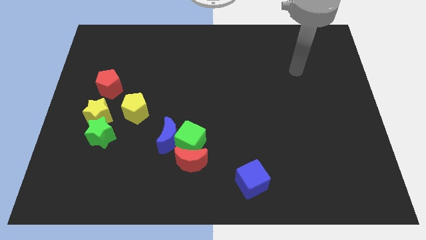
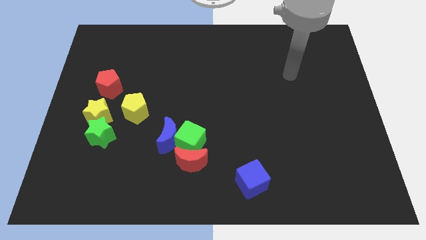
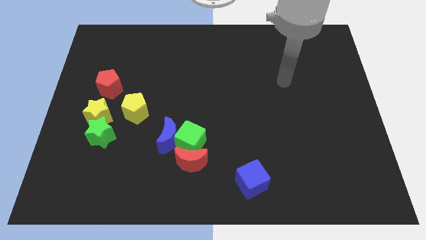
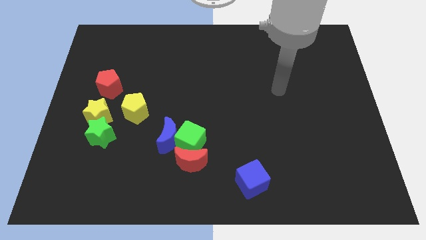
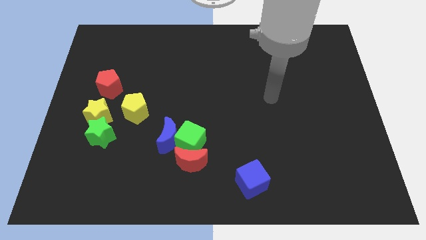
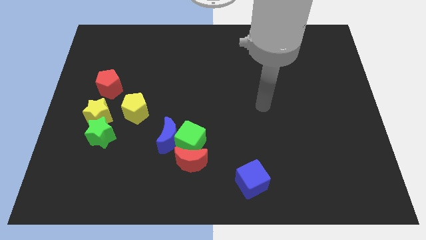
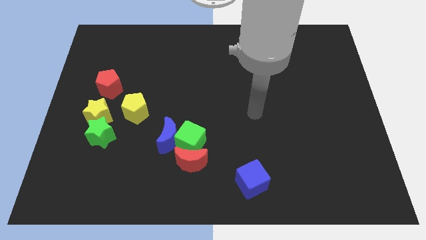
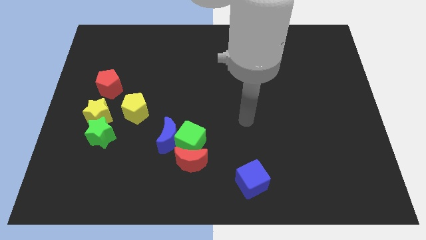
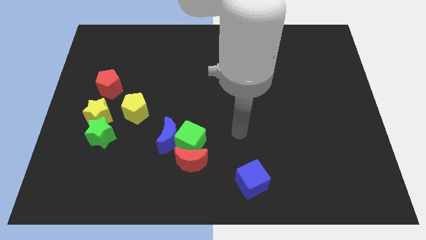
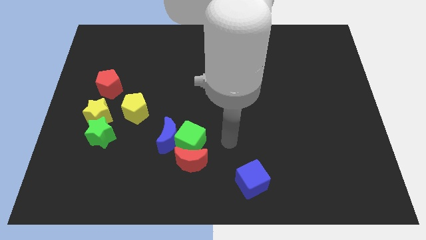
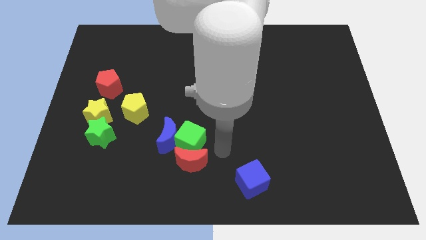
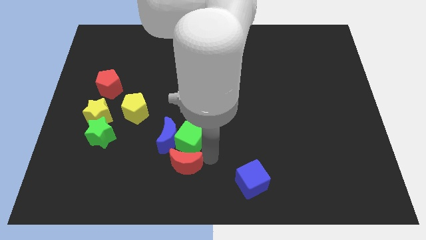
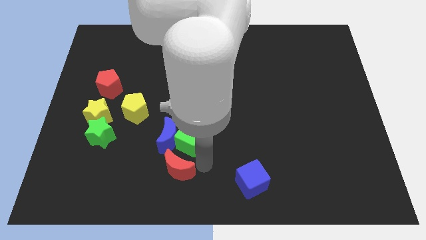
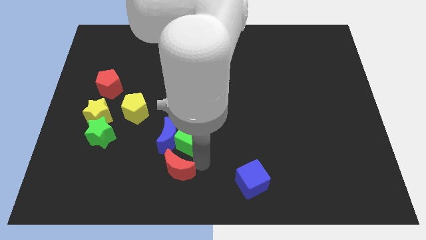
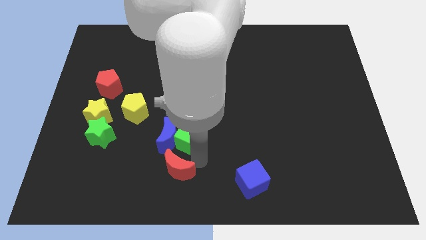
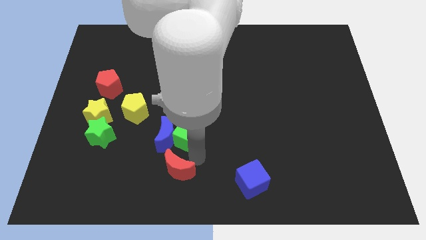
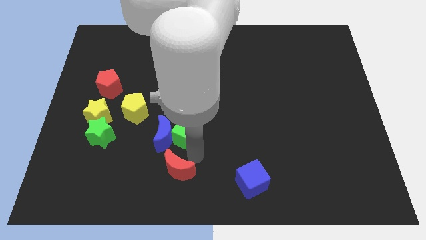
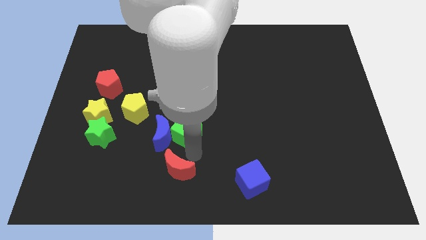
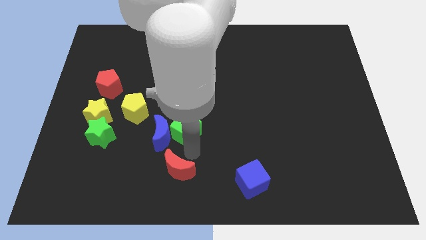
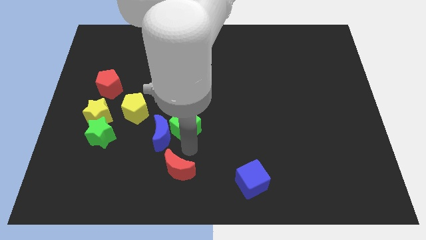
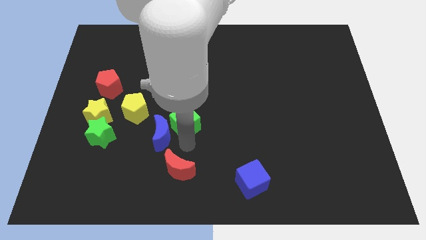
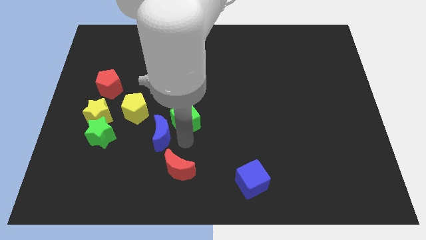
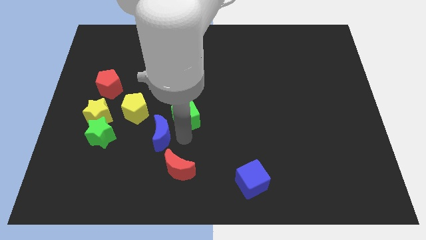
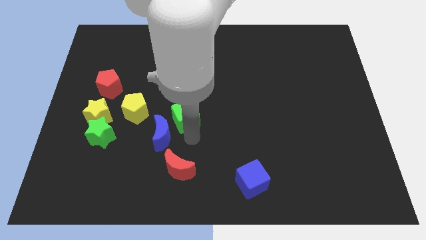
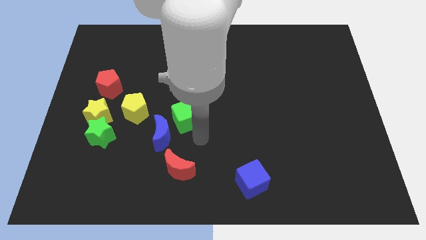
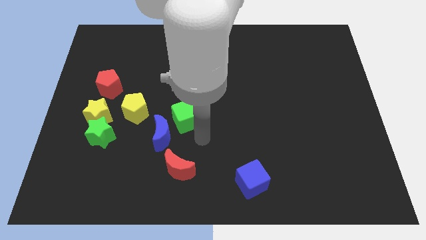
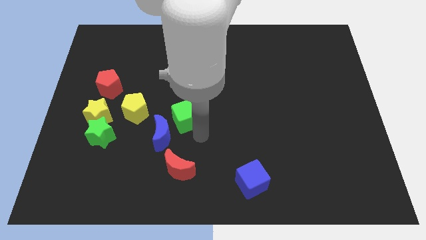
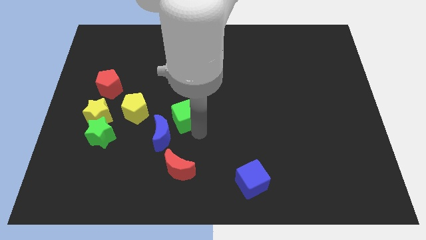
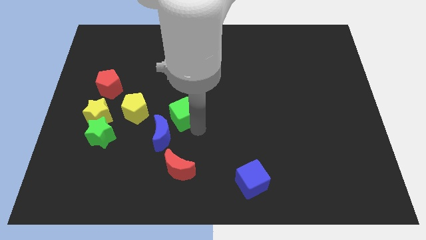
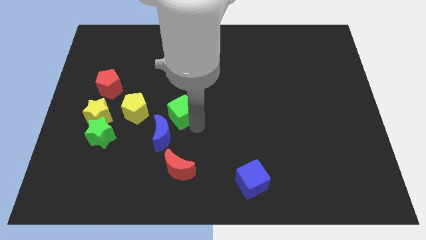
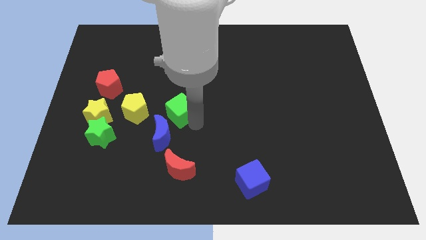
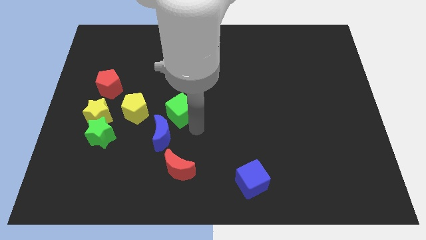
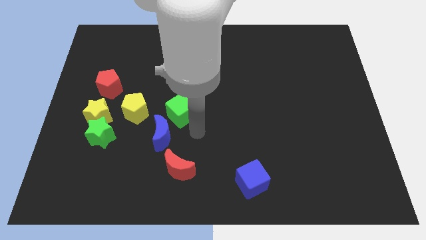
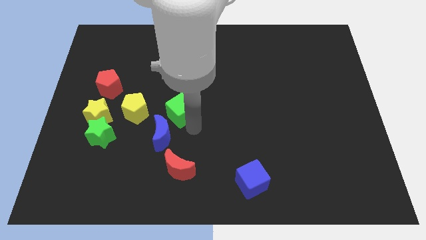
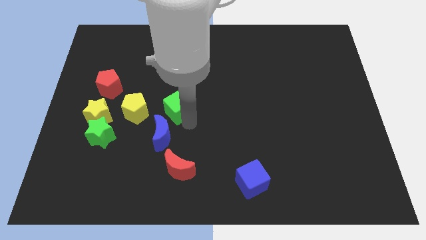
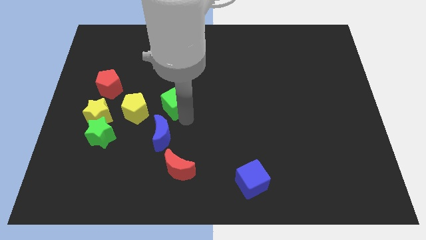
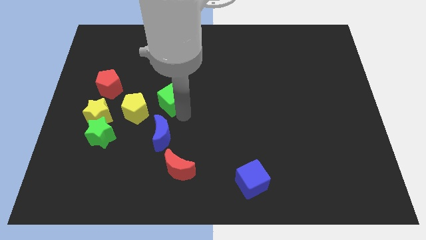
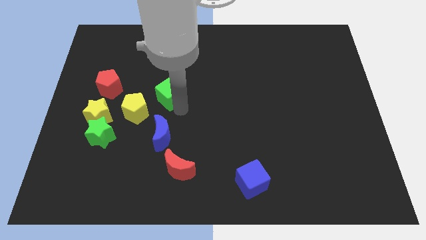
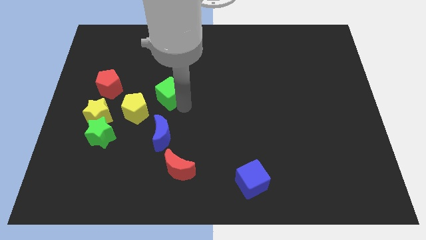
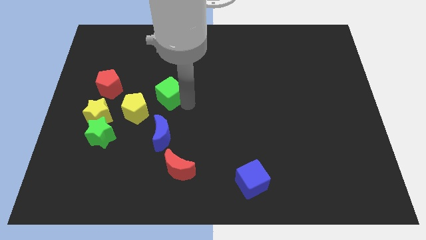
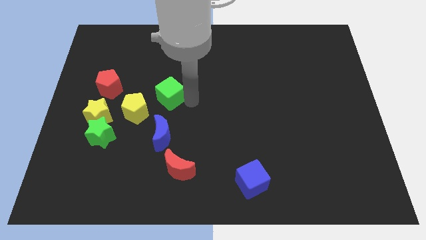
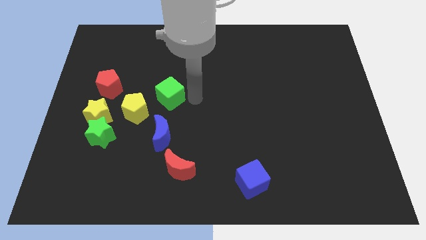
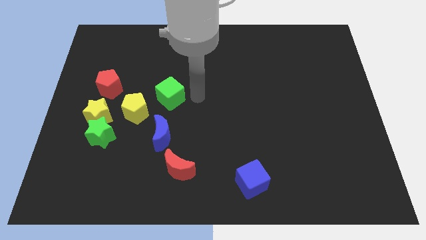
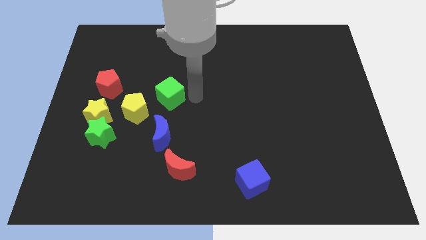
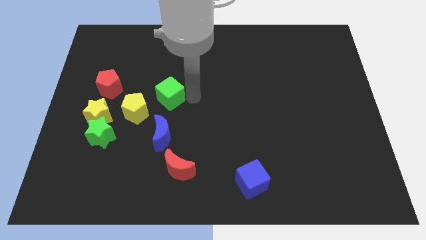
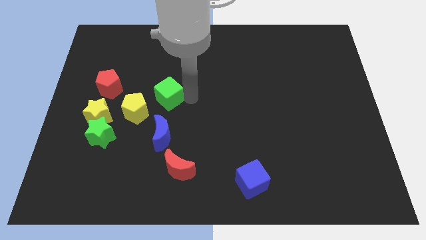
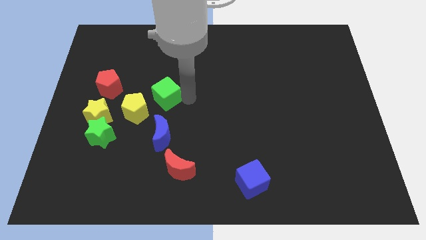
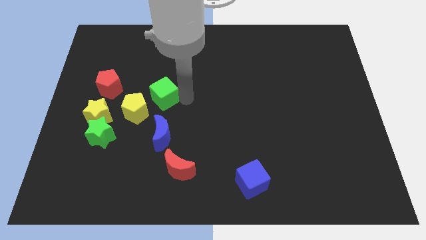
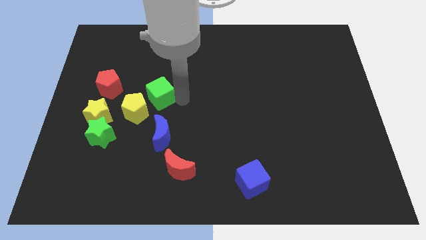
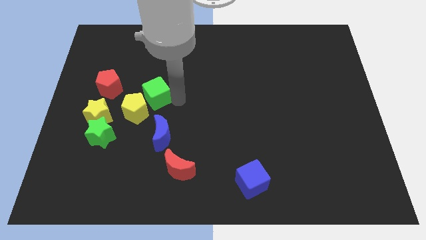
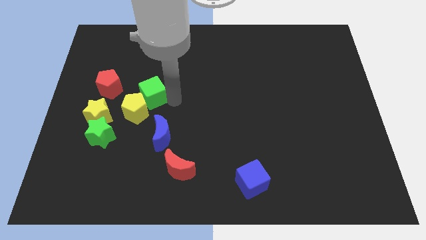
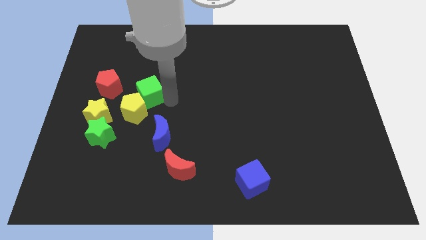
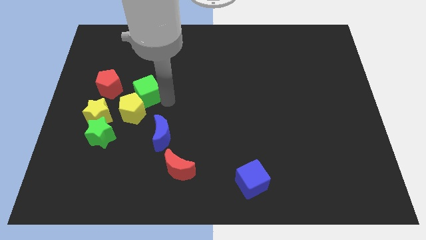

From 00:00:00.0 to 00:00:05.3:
slide the green cube diagonally up and to the right of the yellow star

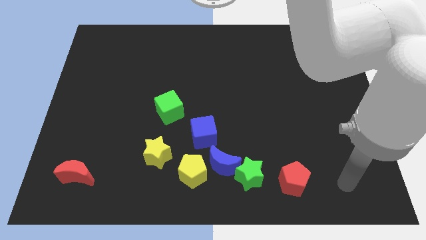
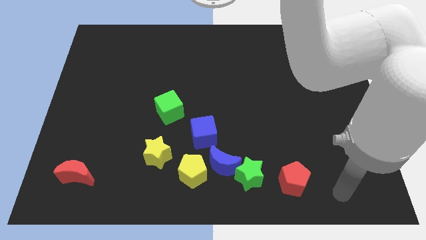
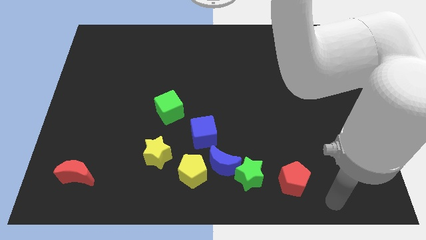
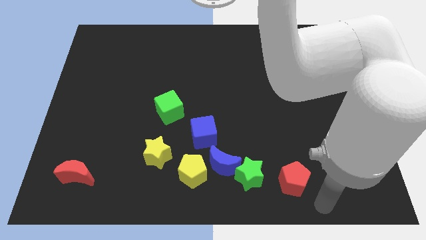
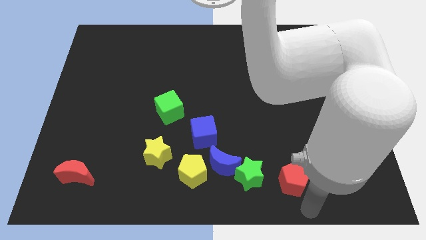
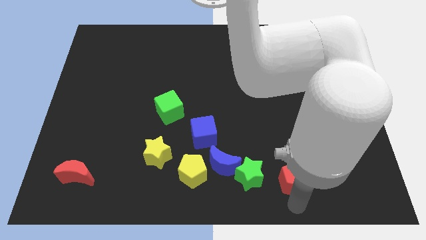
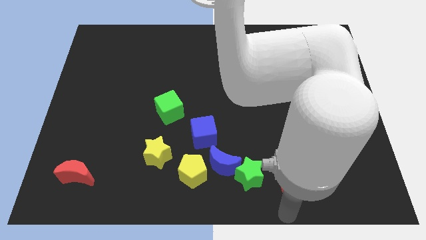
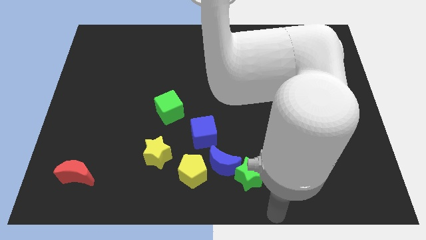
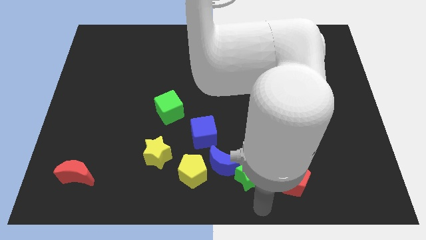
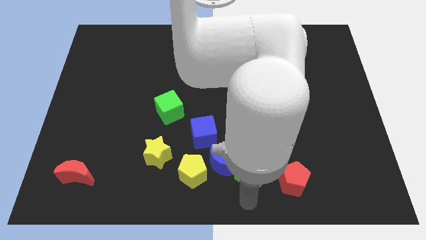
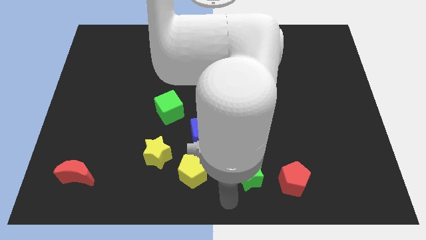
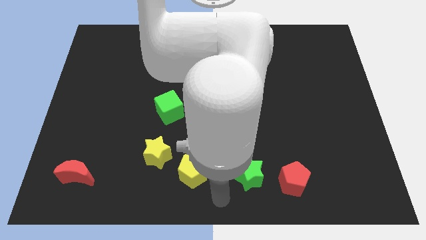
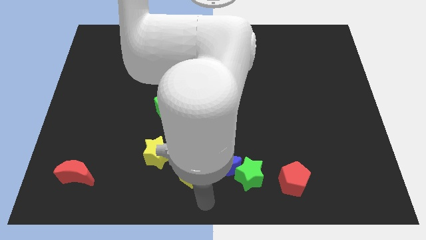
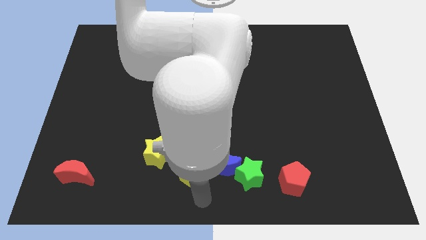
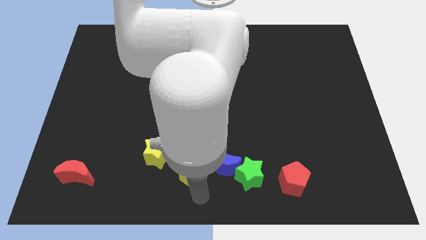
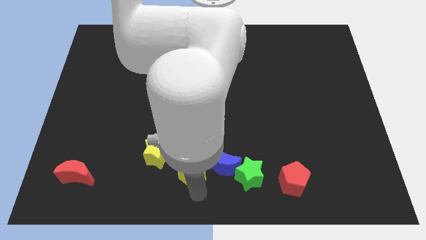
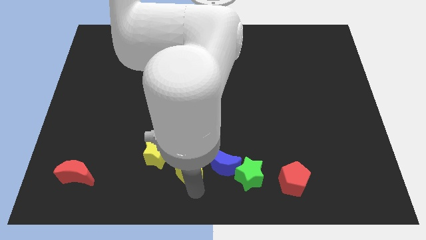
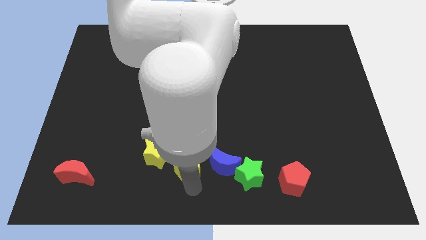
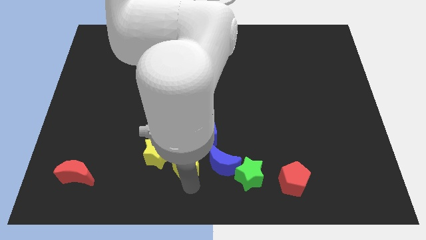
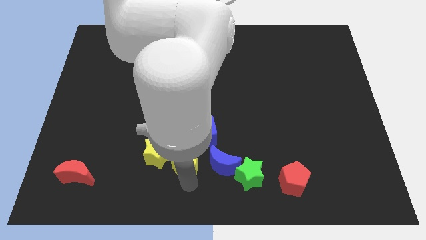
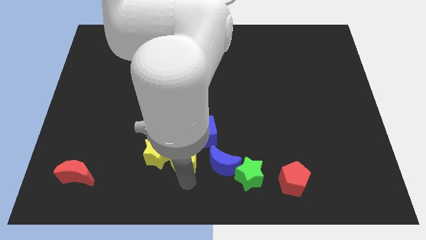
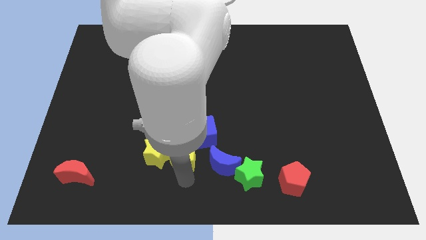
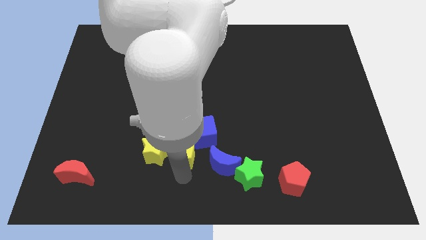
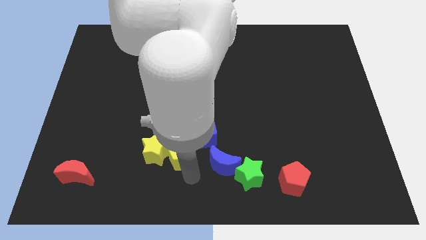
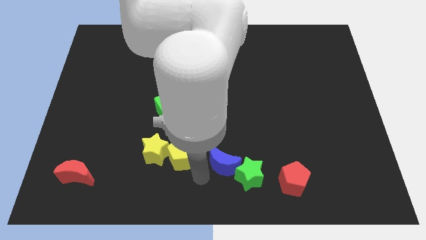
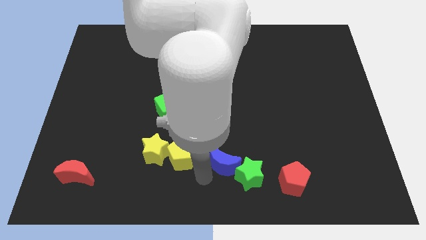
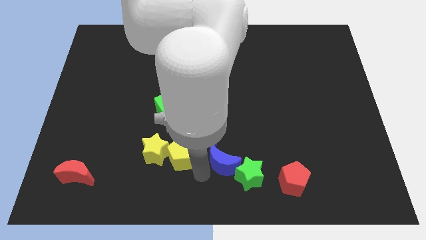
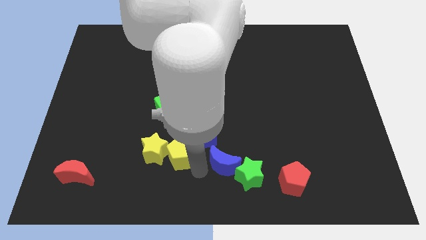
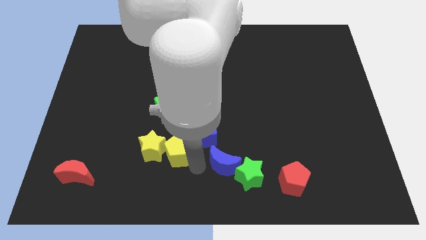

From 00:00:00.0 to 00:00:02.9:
push the yellow pentagon just left of the blue cube
